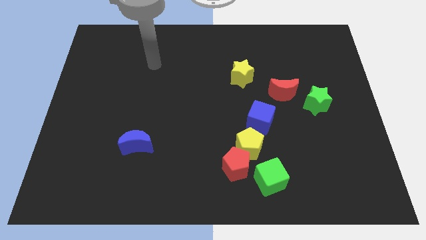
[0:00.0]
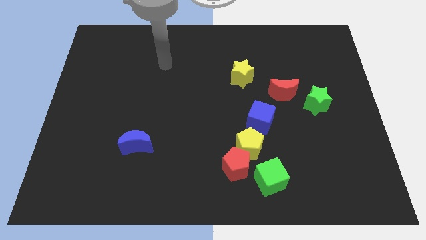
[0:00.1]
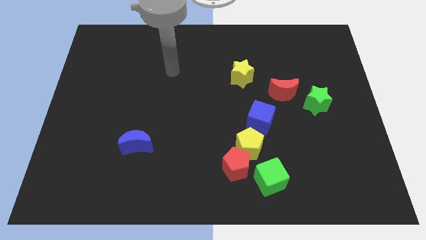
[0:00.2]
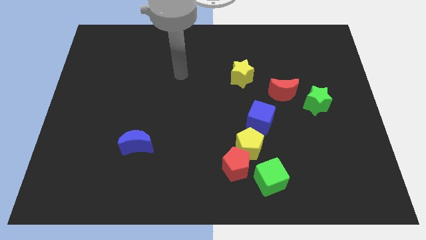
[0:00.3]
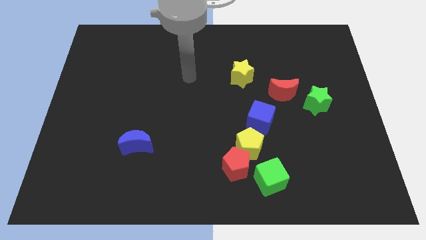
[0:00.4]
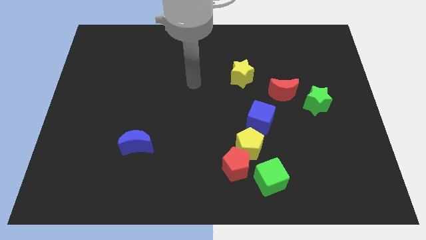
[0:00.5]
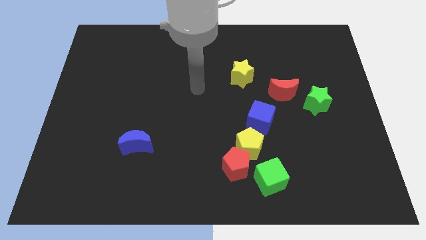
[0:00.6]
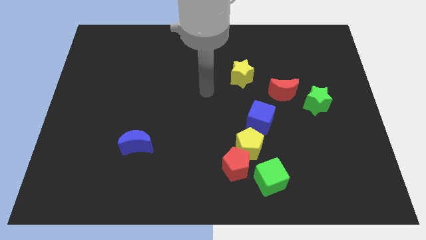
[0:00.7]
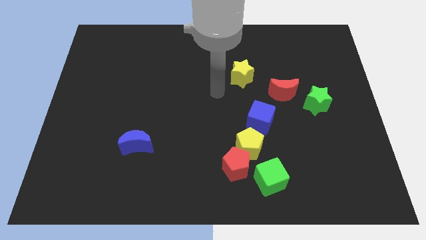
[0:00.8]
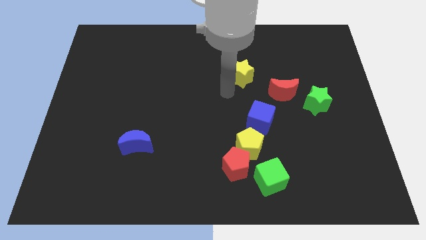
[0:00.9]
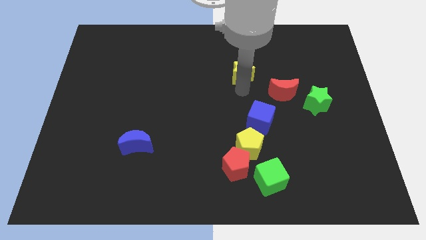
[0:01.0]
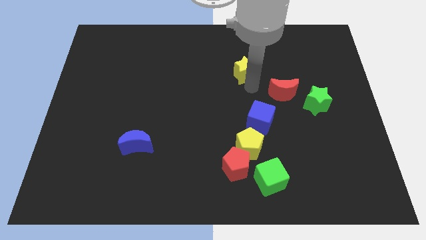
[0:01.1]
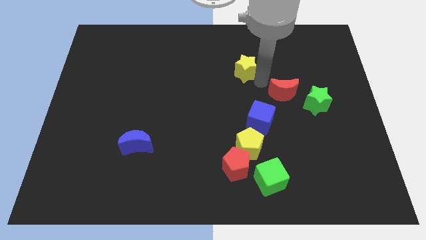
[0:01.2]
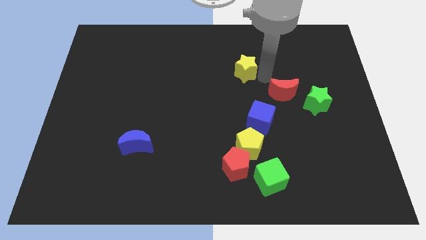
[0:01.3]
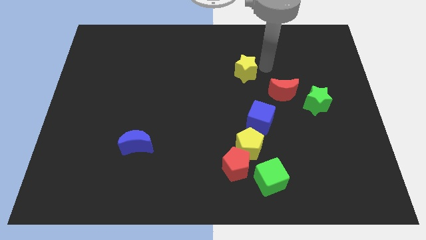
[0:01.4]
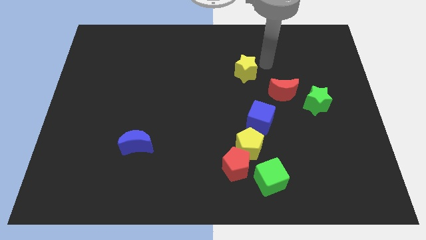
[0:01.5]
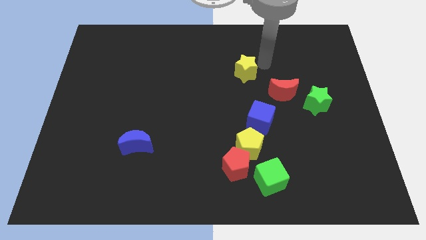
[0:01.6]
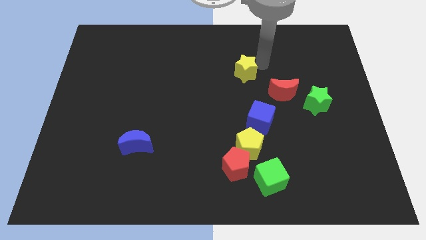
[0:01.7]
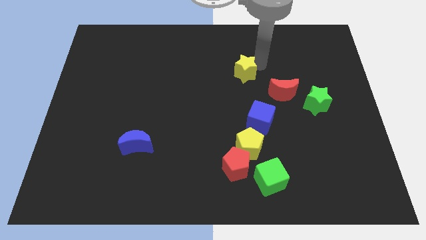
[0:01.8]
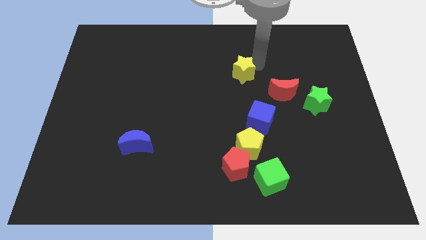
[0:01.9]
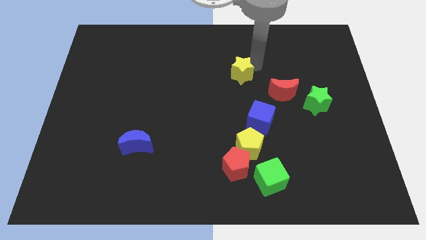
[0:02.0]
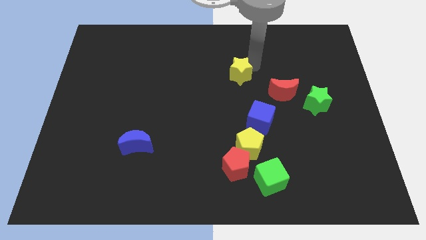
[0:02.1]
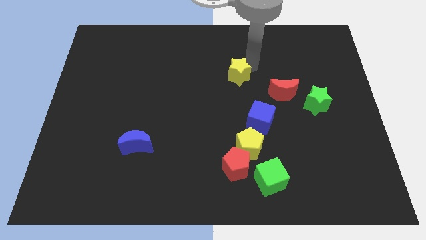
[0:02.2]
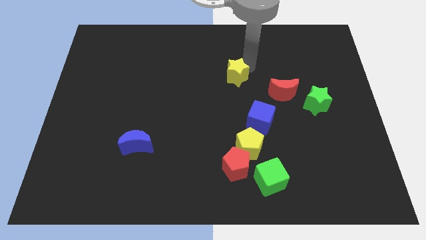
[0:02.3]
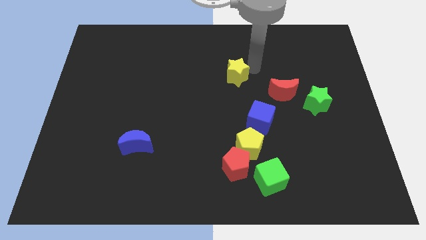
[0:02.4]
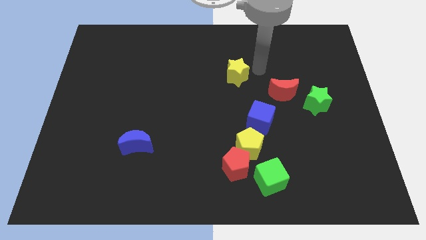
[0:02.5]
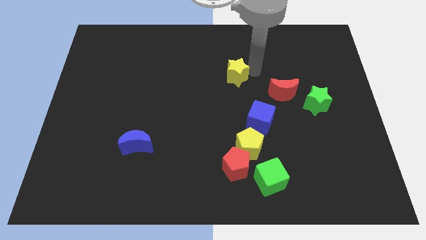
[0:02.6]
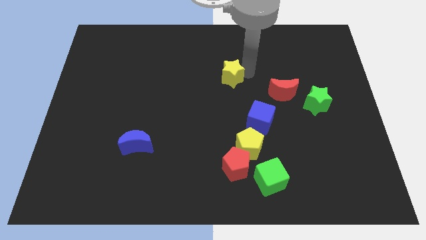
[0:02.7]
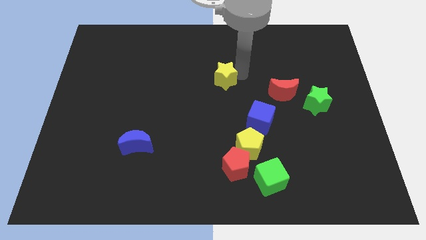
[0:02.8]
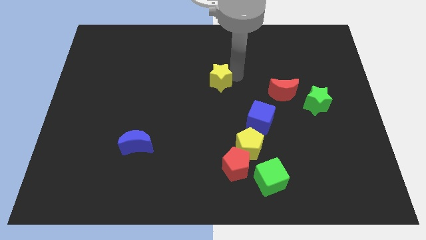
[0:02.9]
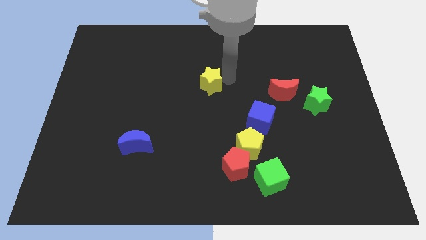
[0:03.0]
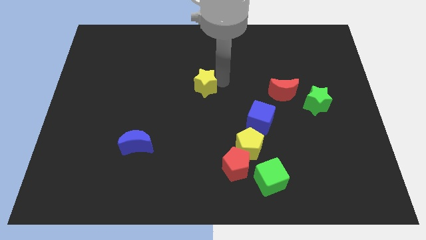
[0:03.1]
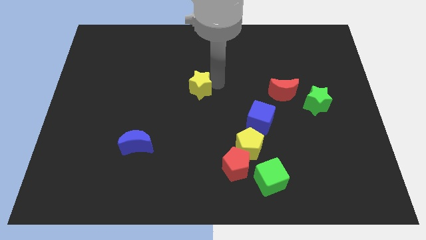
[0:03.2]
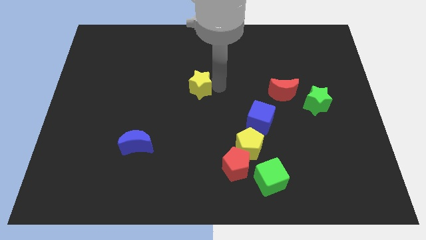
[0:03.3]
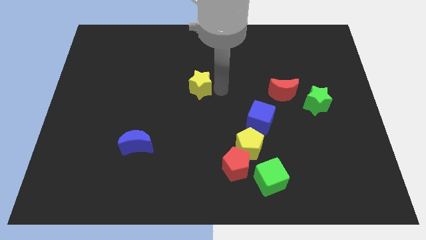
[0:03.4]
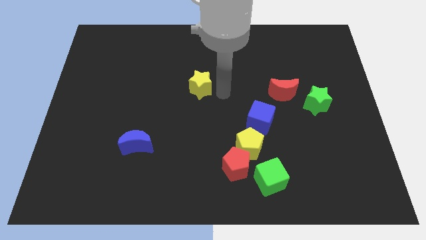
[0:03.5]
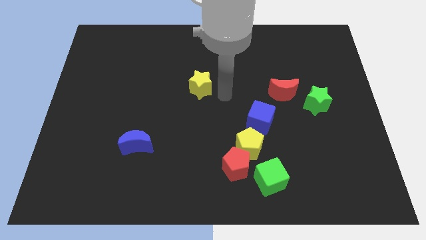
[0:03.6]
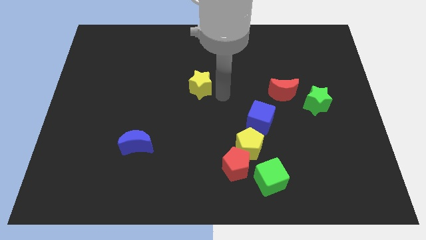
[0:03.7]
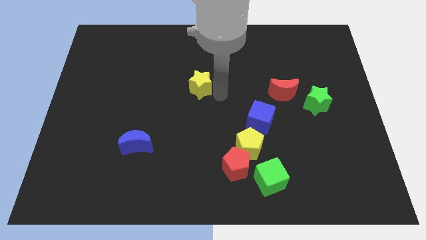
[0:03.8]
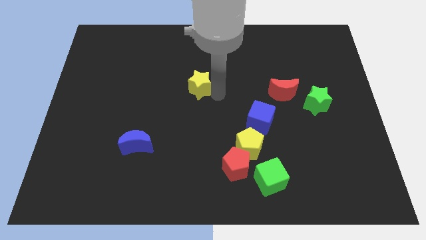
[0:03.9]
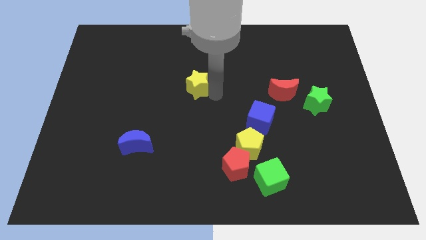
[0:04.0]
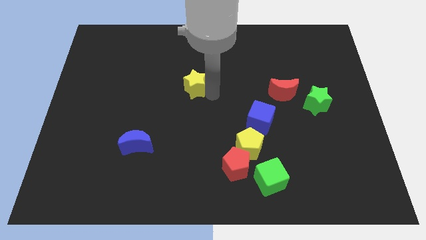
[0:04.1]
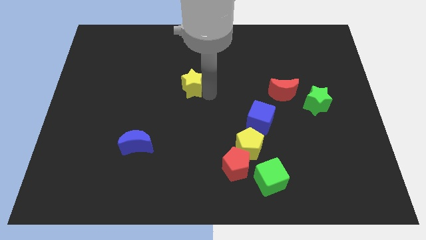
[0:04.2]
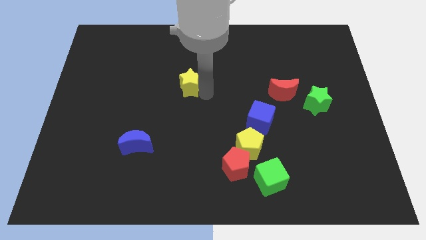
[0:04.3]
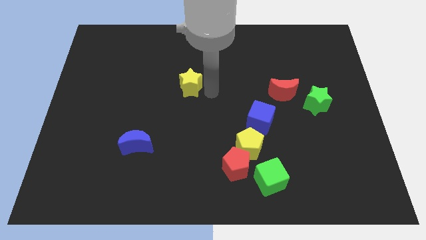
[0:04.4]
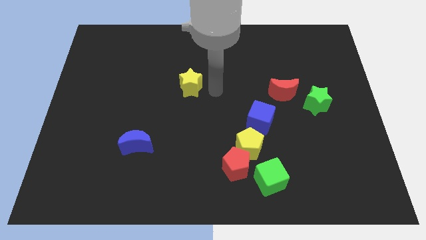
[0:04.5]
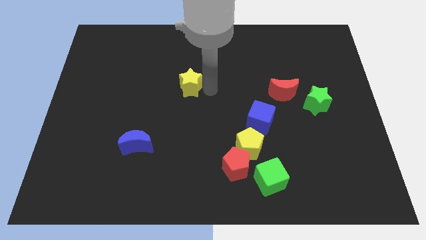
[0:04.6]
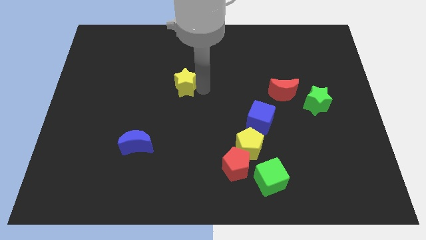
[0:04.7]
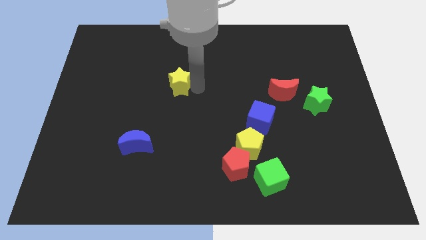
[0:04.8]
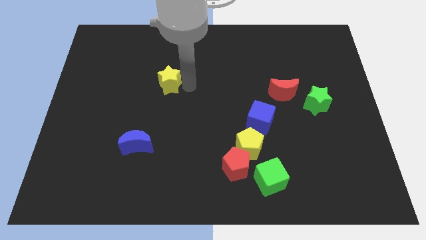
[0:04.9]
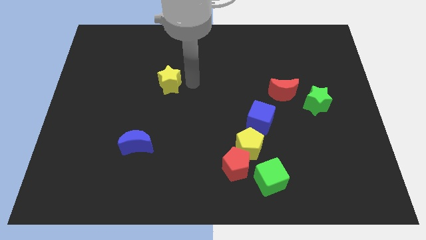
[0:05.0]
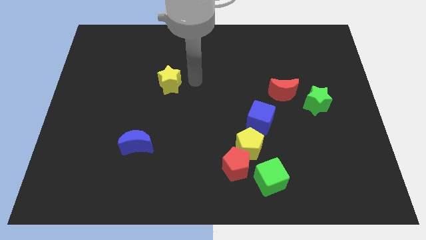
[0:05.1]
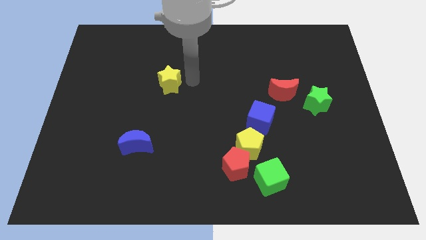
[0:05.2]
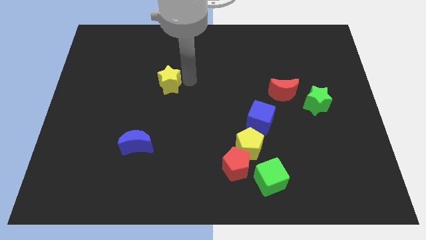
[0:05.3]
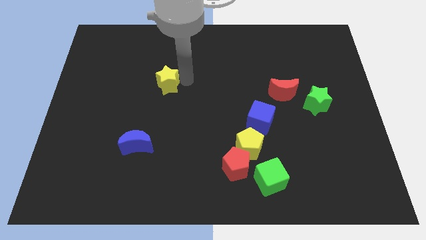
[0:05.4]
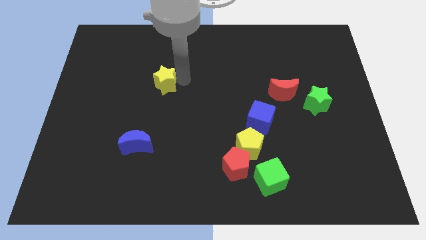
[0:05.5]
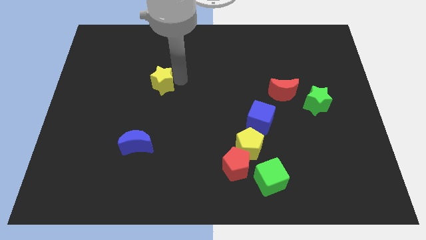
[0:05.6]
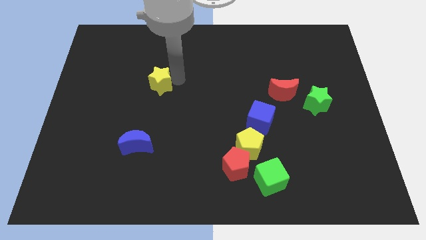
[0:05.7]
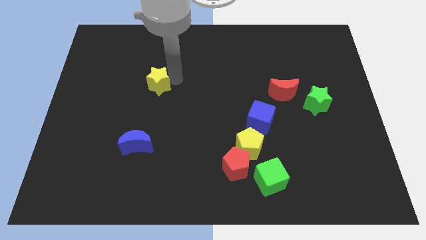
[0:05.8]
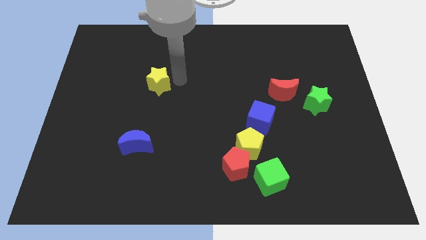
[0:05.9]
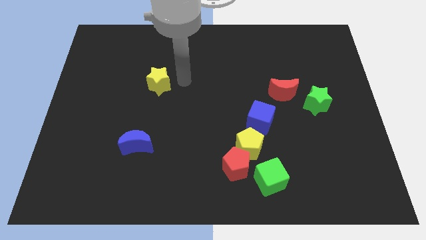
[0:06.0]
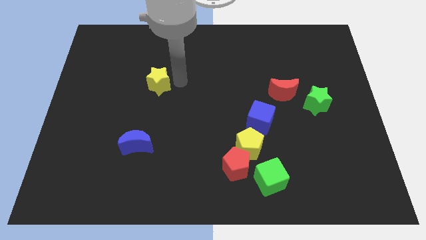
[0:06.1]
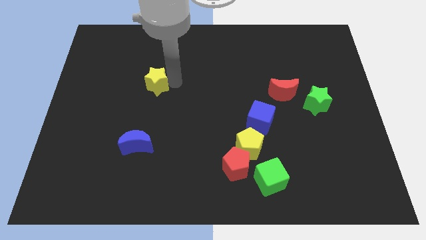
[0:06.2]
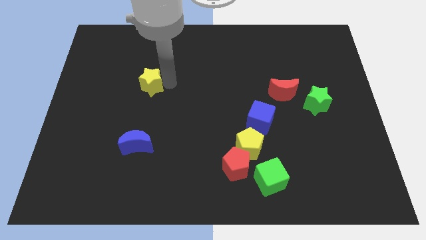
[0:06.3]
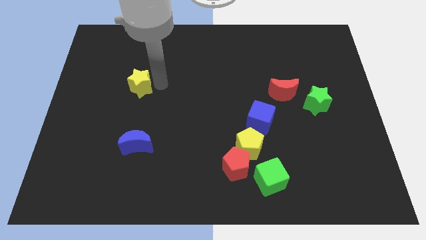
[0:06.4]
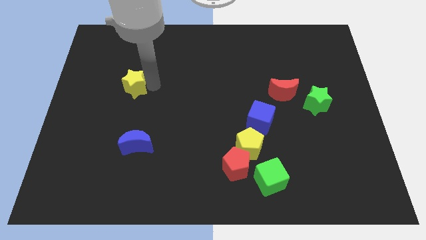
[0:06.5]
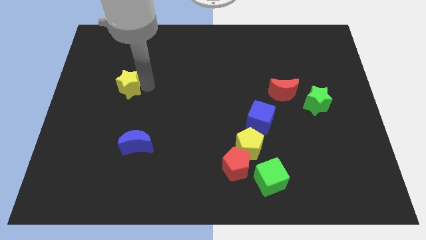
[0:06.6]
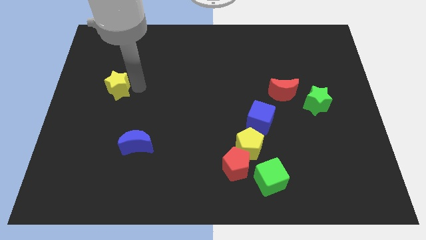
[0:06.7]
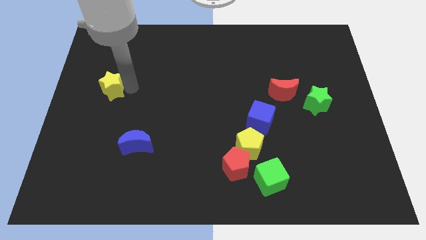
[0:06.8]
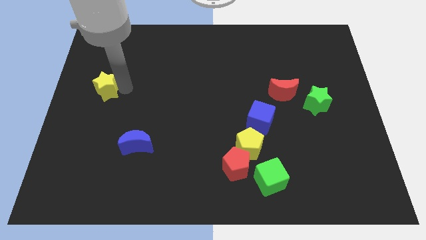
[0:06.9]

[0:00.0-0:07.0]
put the yellow star to the center left

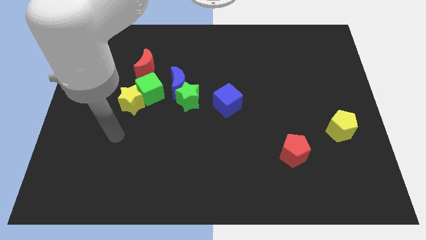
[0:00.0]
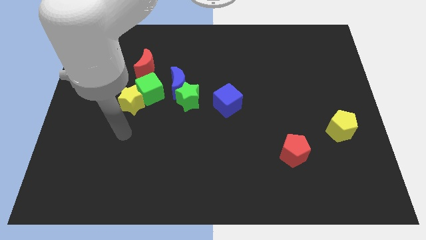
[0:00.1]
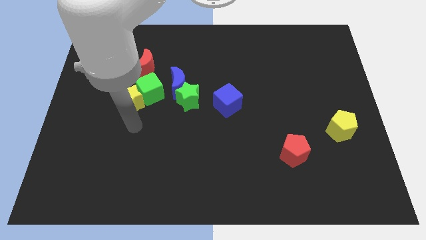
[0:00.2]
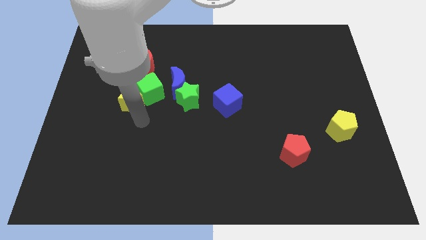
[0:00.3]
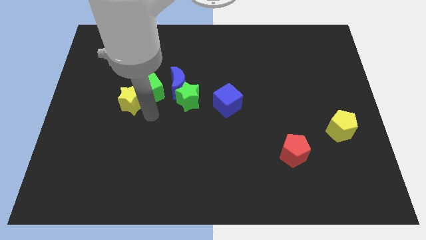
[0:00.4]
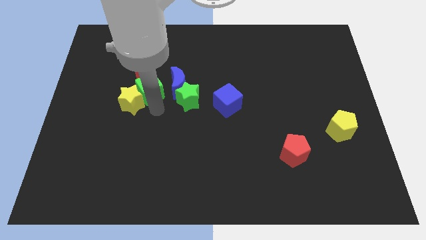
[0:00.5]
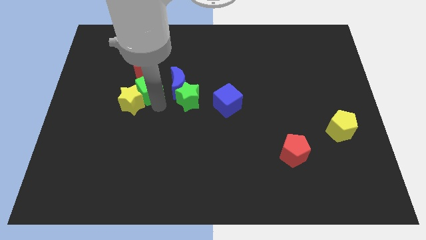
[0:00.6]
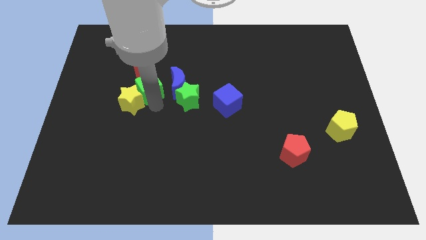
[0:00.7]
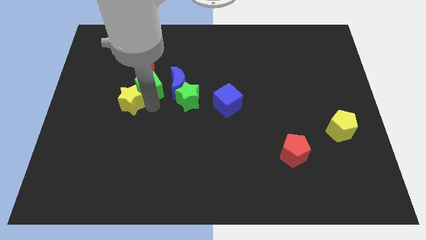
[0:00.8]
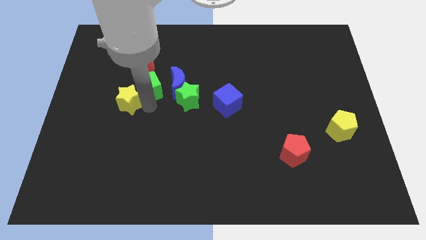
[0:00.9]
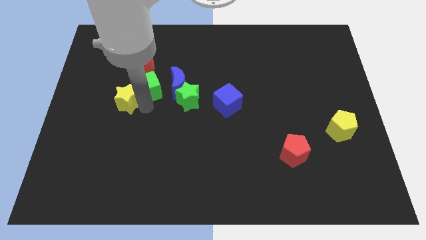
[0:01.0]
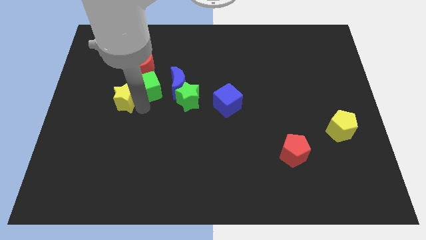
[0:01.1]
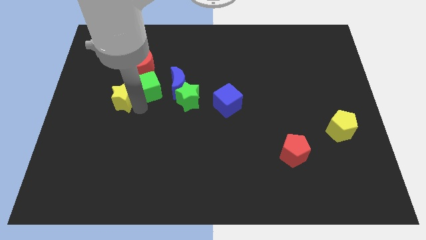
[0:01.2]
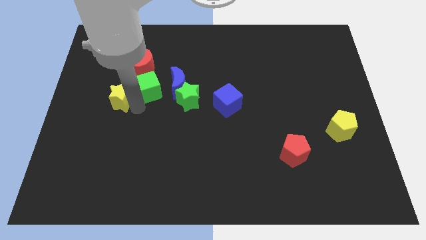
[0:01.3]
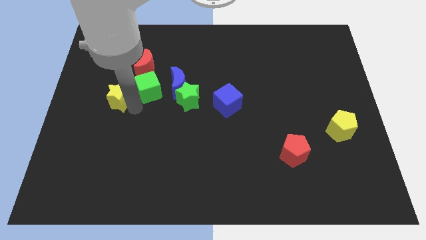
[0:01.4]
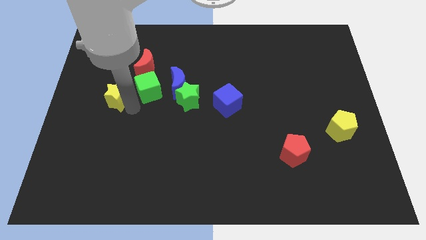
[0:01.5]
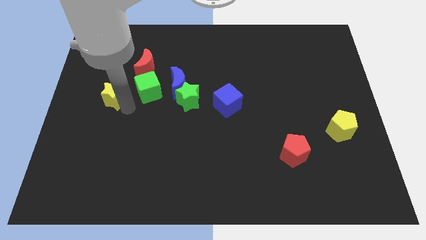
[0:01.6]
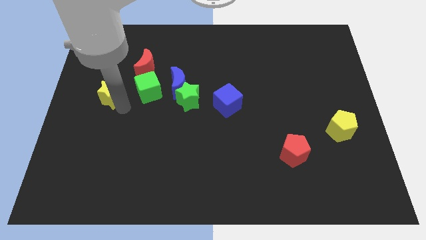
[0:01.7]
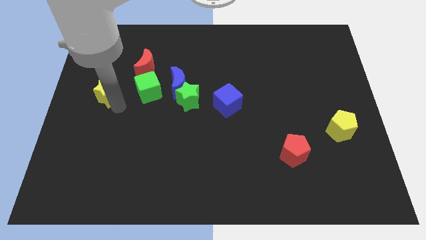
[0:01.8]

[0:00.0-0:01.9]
slide the yellow star to the center left
